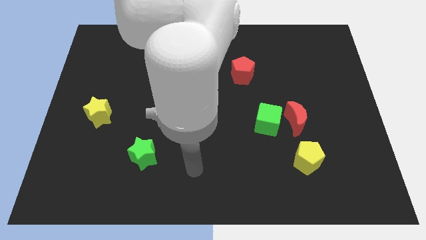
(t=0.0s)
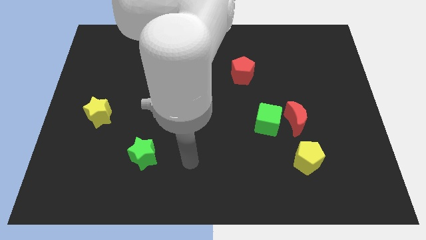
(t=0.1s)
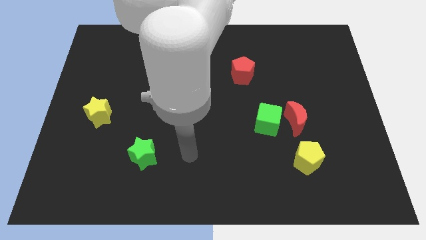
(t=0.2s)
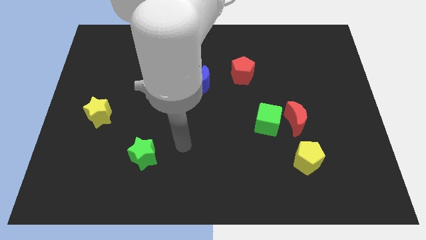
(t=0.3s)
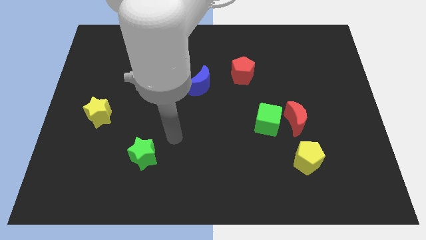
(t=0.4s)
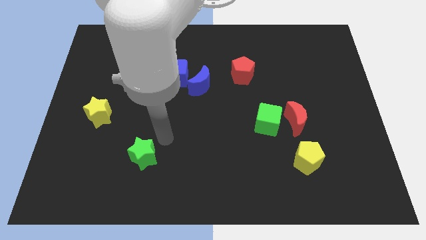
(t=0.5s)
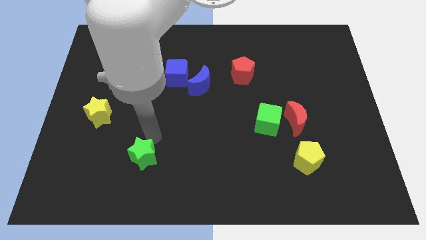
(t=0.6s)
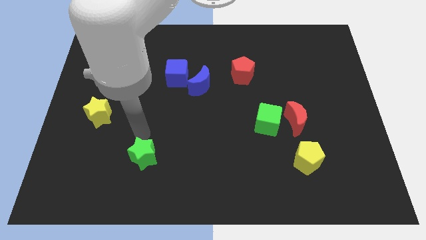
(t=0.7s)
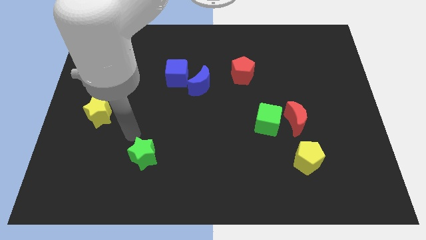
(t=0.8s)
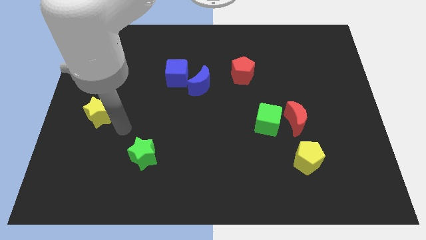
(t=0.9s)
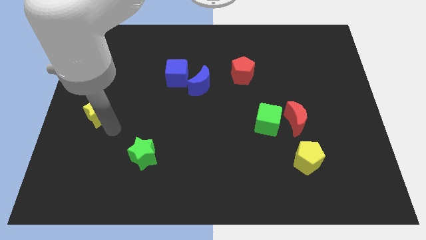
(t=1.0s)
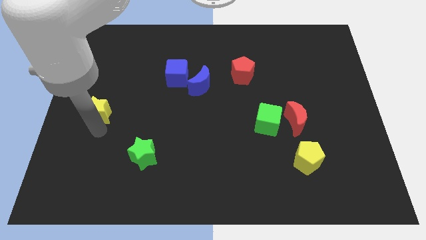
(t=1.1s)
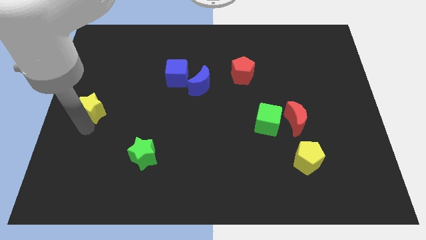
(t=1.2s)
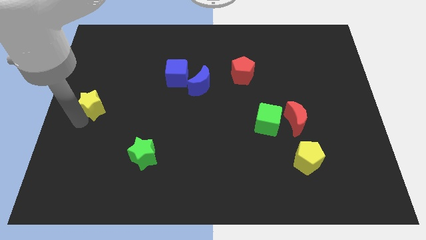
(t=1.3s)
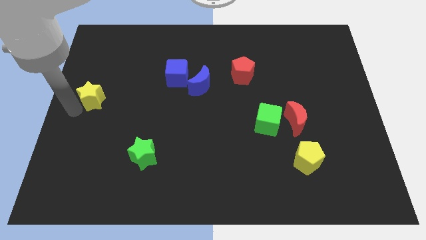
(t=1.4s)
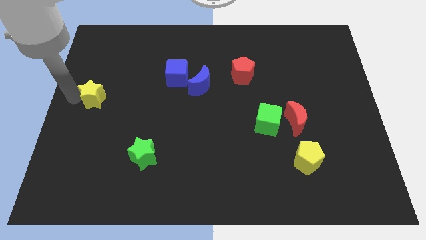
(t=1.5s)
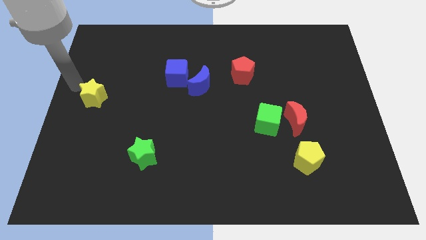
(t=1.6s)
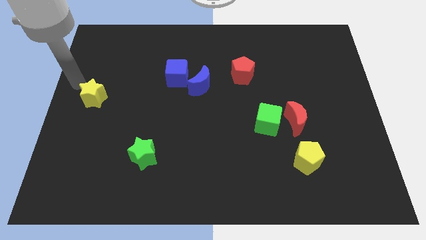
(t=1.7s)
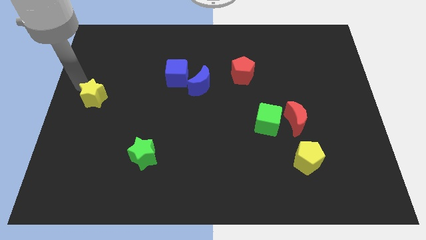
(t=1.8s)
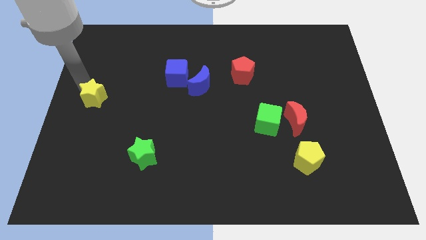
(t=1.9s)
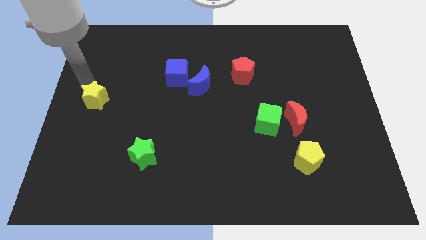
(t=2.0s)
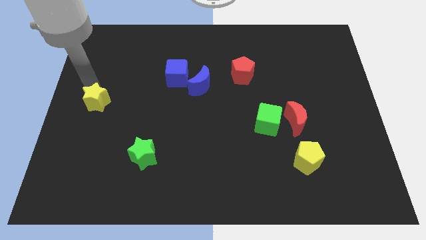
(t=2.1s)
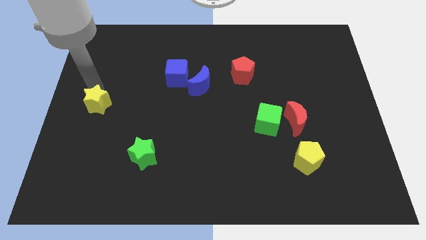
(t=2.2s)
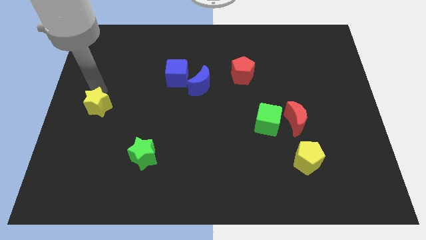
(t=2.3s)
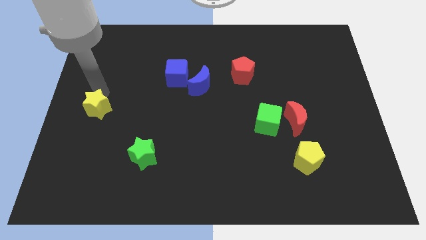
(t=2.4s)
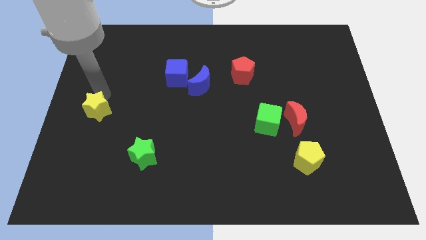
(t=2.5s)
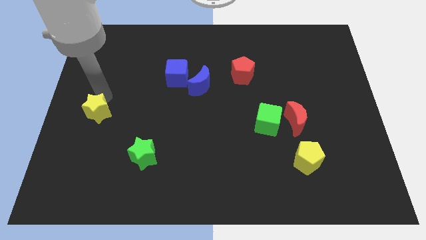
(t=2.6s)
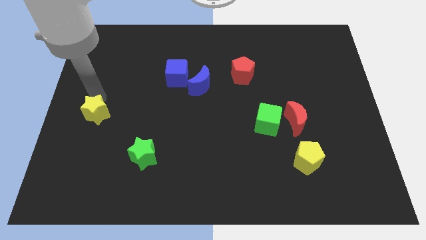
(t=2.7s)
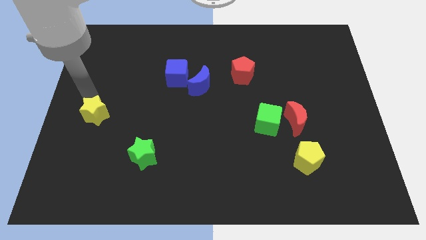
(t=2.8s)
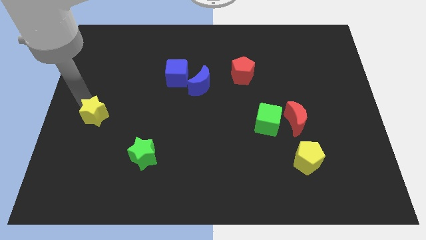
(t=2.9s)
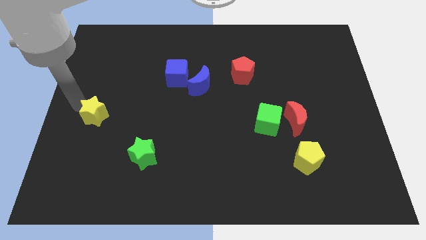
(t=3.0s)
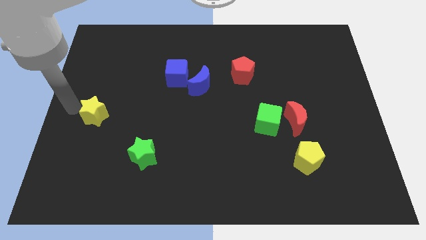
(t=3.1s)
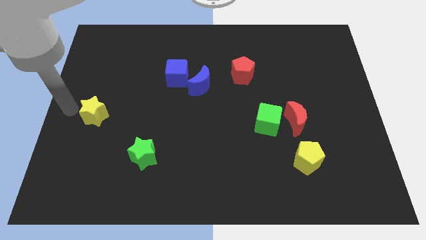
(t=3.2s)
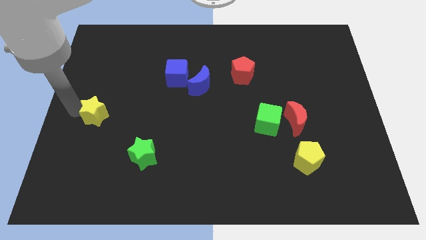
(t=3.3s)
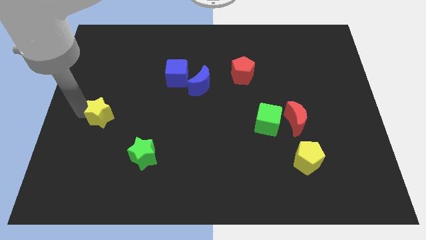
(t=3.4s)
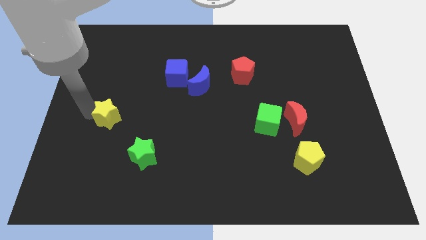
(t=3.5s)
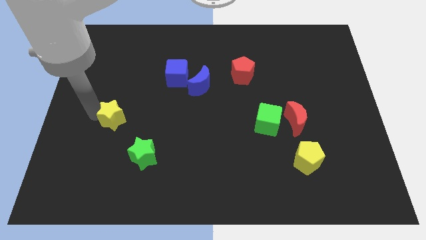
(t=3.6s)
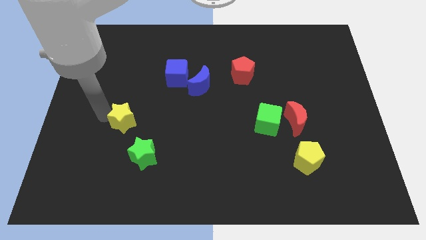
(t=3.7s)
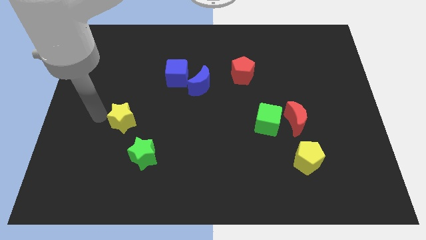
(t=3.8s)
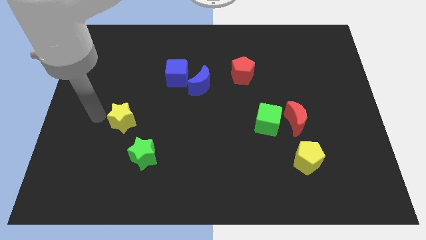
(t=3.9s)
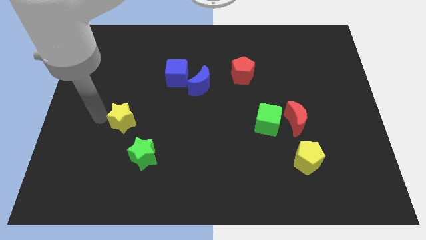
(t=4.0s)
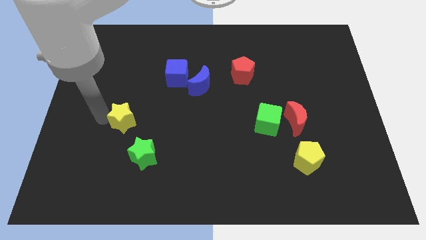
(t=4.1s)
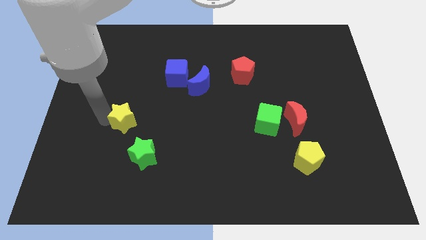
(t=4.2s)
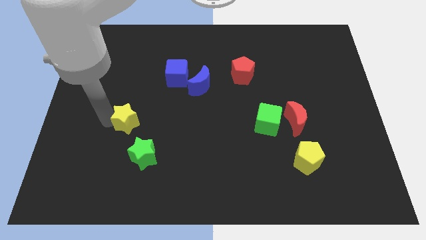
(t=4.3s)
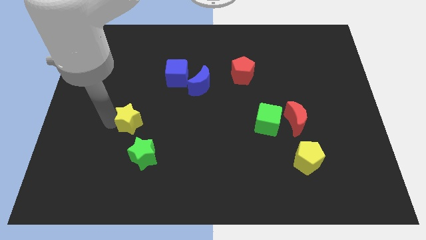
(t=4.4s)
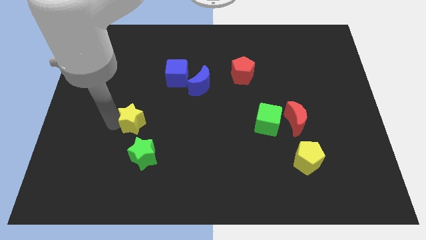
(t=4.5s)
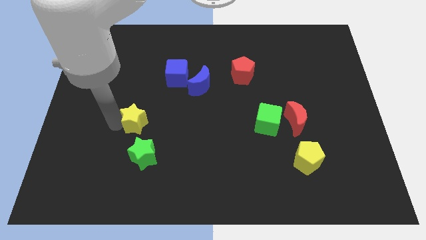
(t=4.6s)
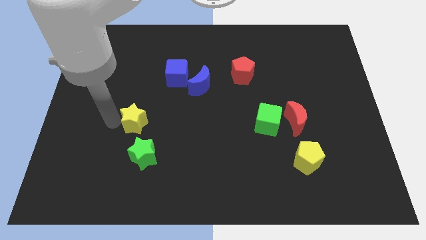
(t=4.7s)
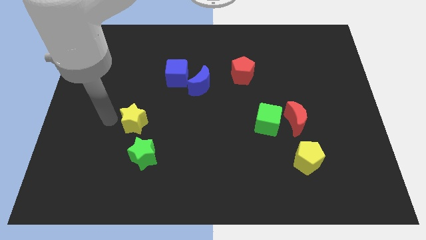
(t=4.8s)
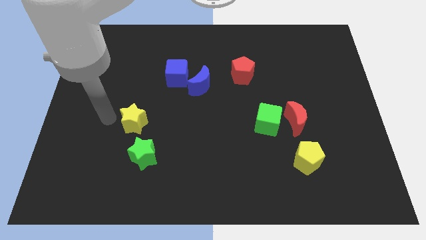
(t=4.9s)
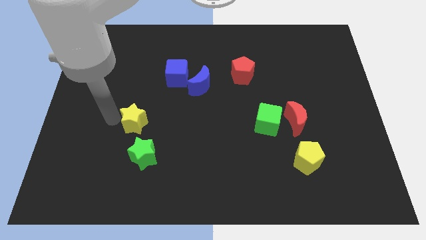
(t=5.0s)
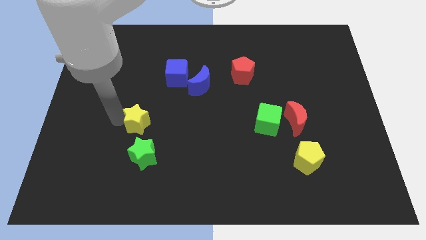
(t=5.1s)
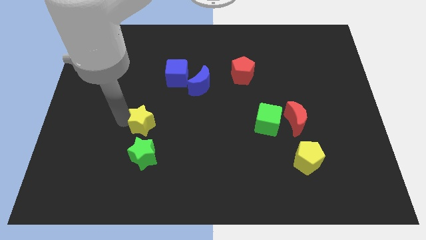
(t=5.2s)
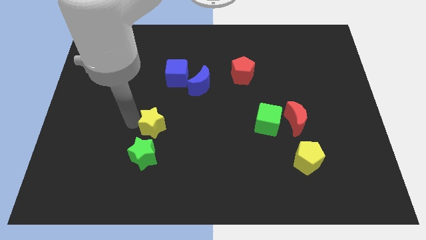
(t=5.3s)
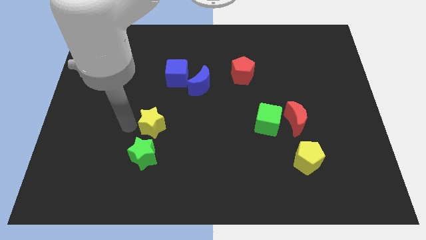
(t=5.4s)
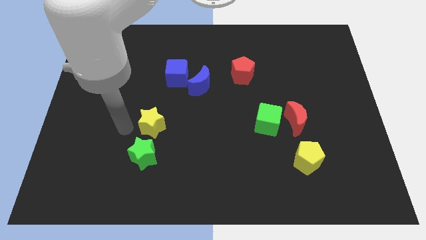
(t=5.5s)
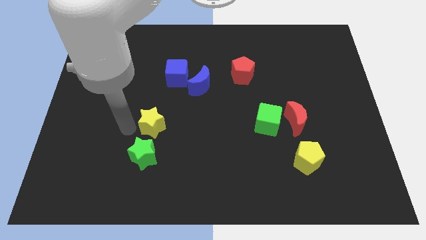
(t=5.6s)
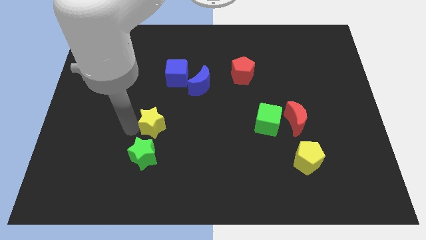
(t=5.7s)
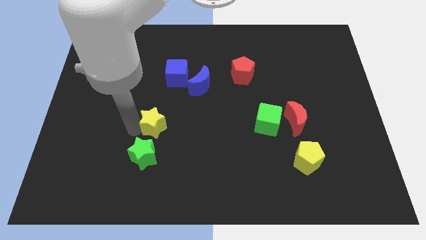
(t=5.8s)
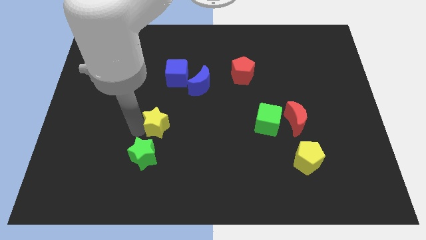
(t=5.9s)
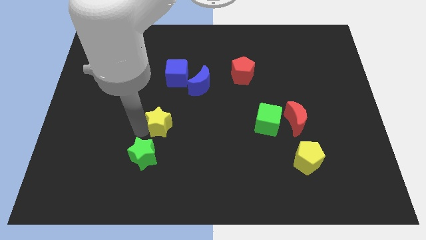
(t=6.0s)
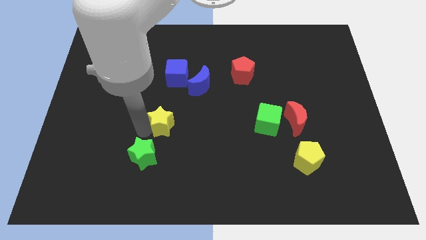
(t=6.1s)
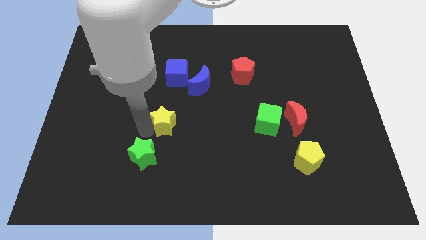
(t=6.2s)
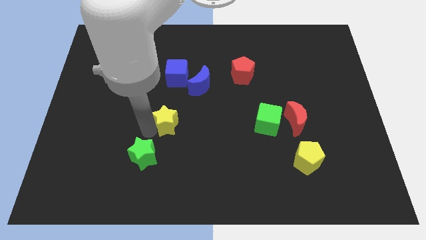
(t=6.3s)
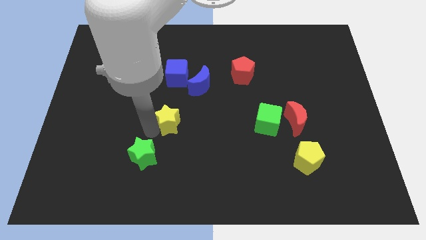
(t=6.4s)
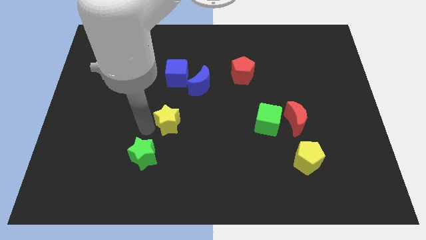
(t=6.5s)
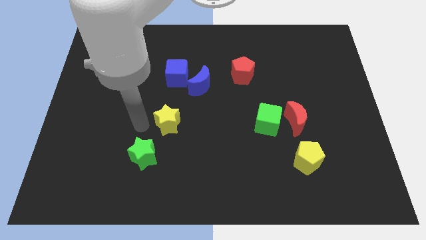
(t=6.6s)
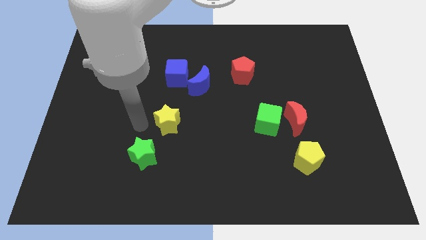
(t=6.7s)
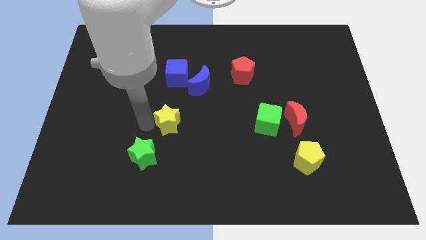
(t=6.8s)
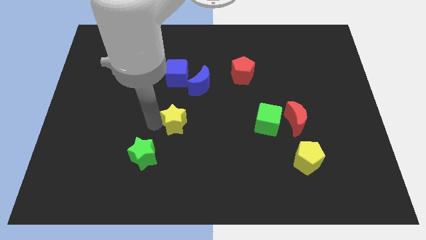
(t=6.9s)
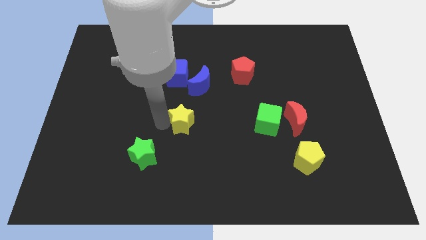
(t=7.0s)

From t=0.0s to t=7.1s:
put the yellow star to the bottom of the blue moon
